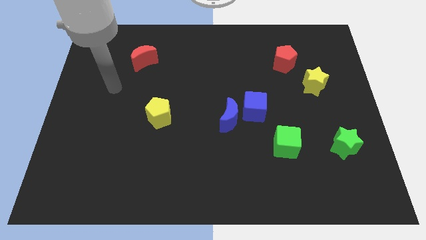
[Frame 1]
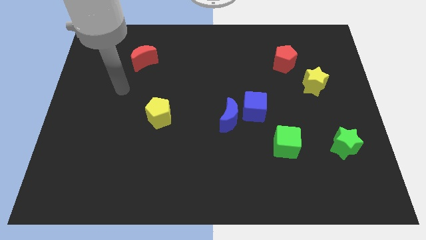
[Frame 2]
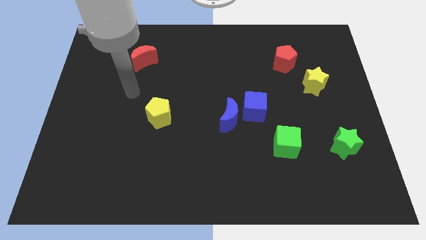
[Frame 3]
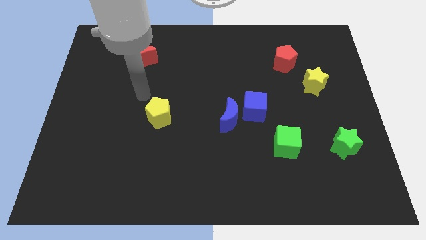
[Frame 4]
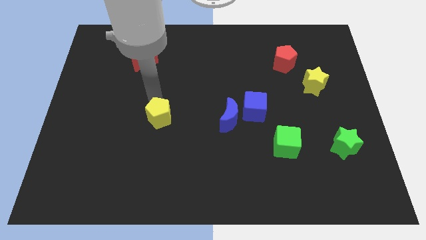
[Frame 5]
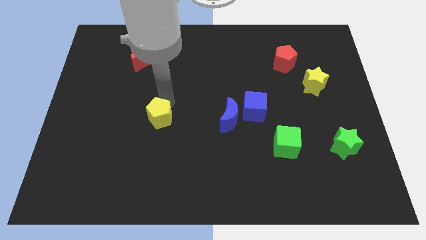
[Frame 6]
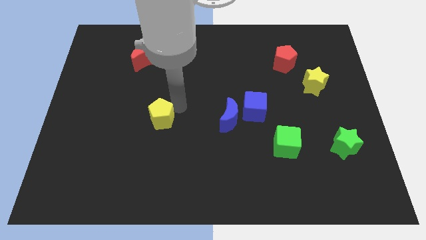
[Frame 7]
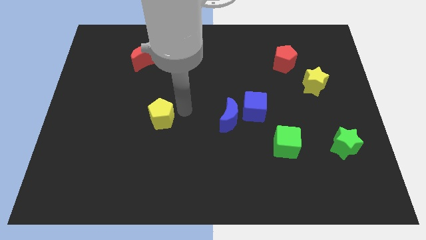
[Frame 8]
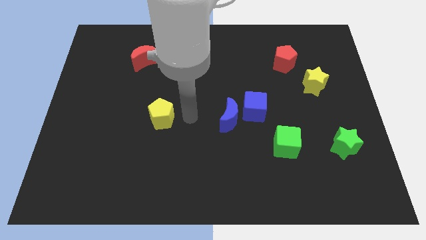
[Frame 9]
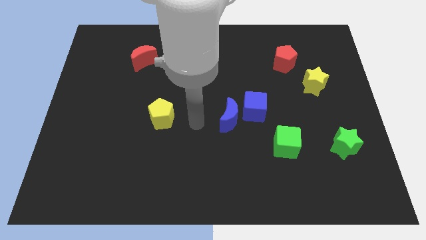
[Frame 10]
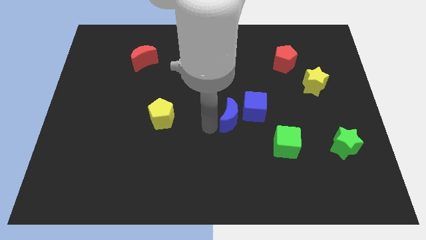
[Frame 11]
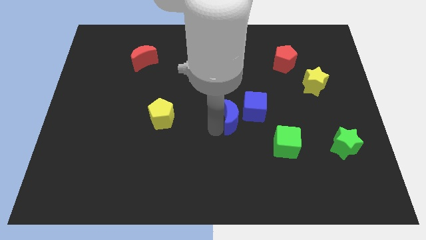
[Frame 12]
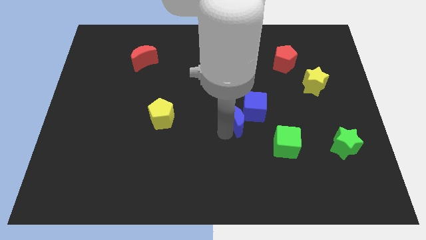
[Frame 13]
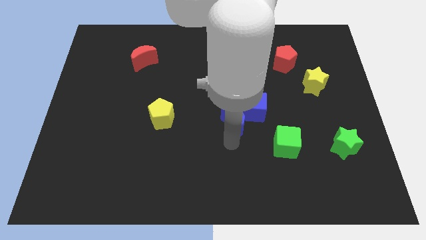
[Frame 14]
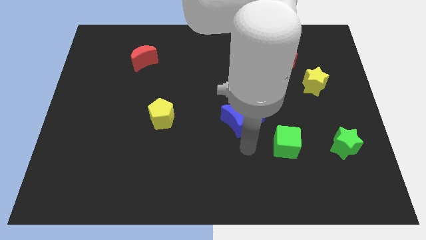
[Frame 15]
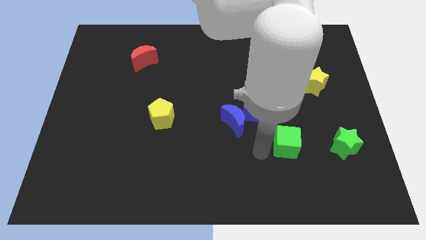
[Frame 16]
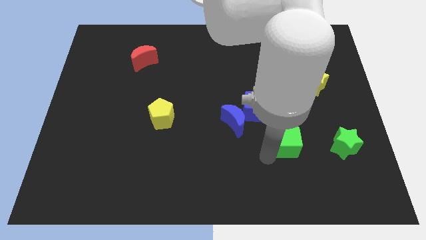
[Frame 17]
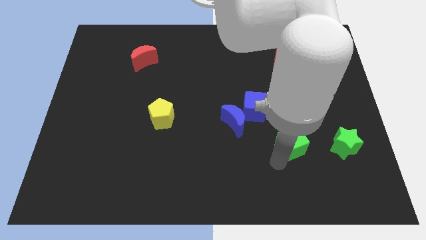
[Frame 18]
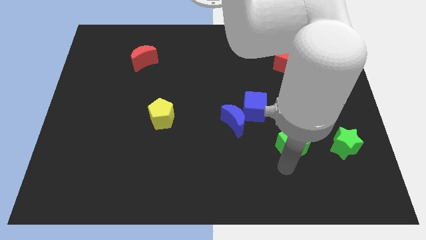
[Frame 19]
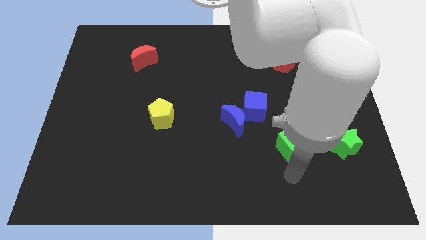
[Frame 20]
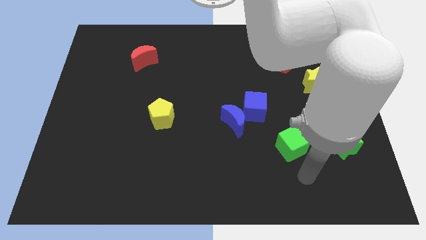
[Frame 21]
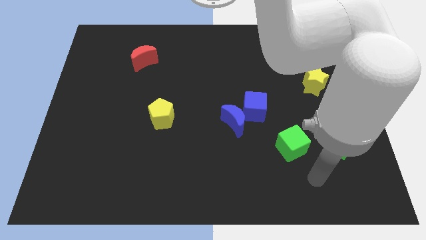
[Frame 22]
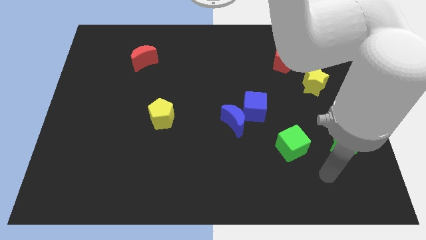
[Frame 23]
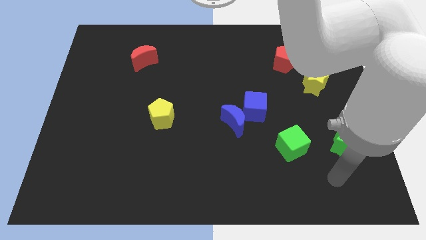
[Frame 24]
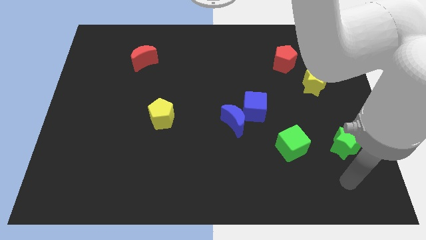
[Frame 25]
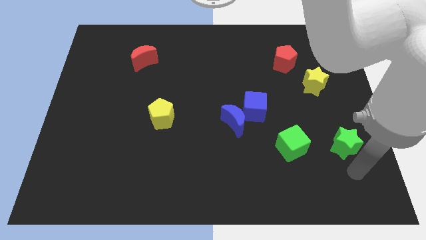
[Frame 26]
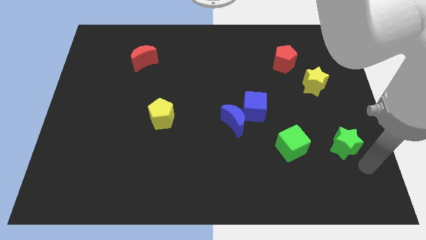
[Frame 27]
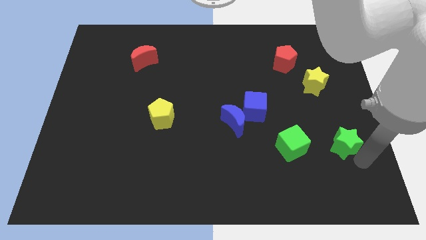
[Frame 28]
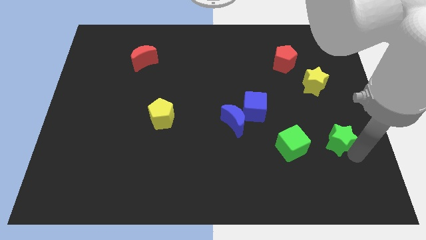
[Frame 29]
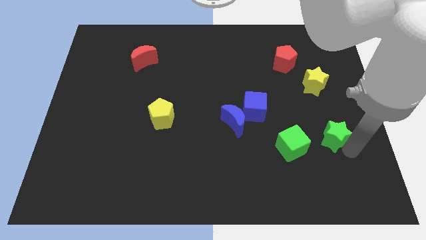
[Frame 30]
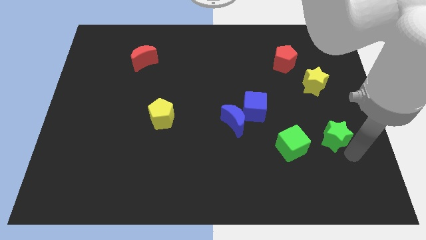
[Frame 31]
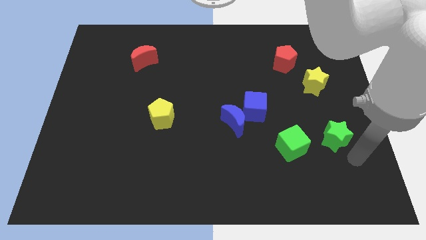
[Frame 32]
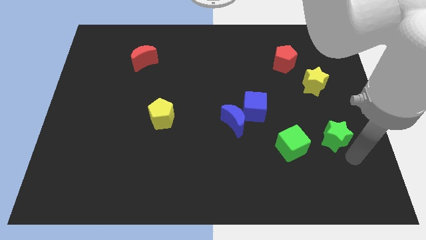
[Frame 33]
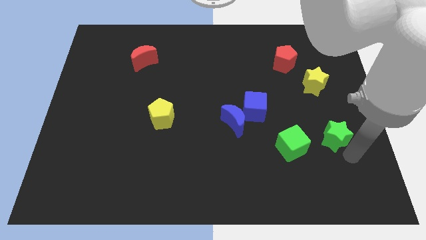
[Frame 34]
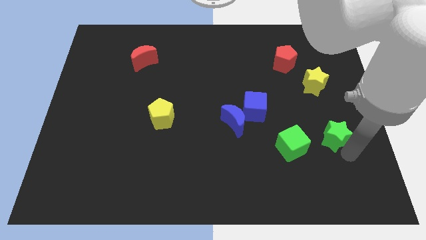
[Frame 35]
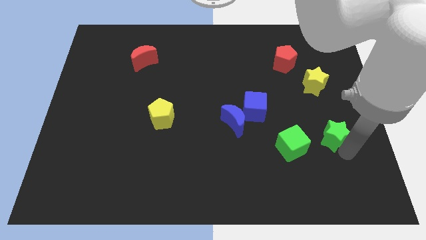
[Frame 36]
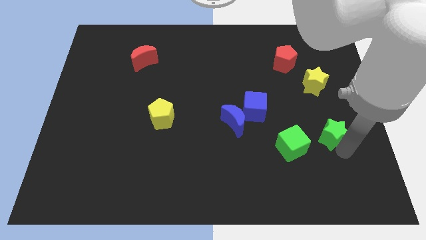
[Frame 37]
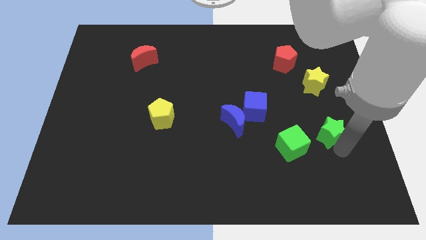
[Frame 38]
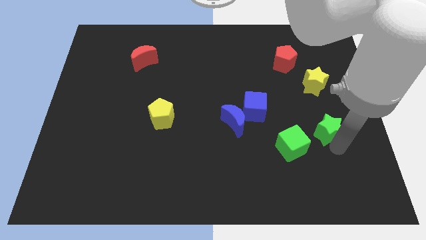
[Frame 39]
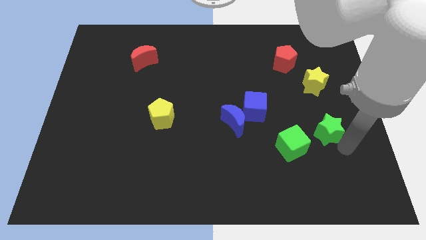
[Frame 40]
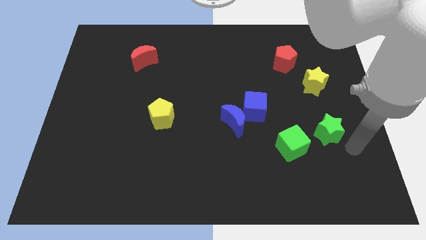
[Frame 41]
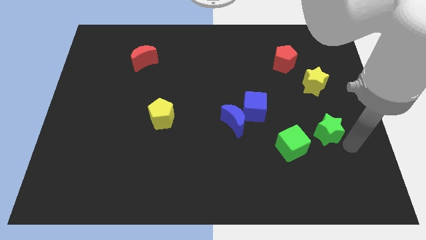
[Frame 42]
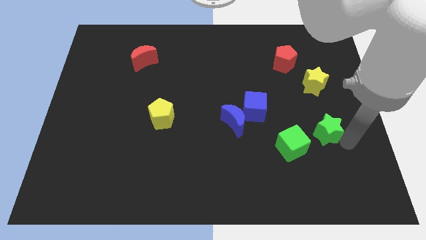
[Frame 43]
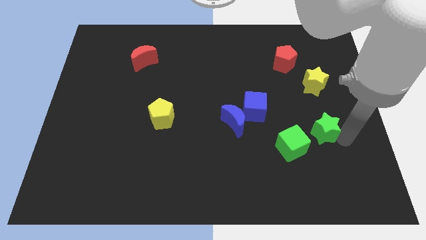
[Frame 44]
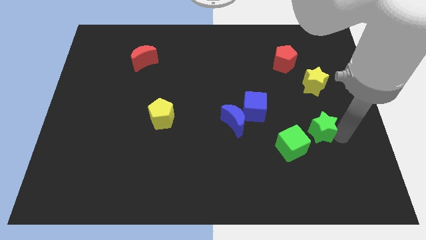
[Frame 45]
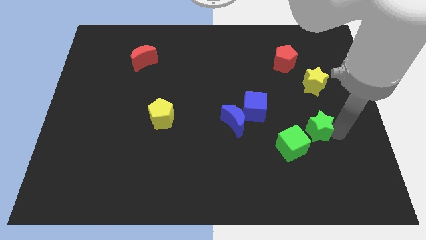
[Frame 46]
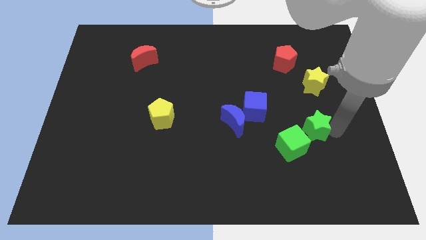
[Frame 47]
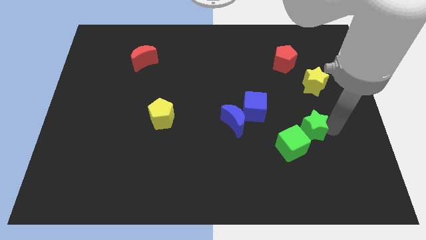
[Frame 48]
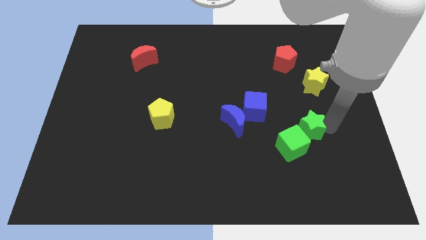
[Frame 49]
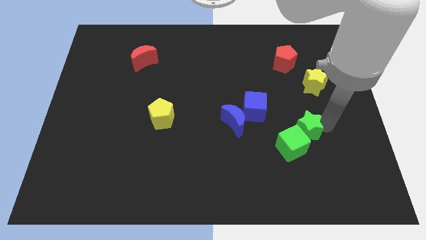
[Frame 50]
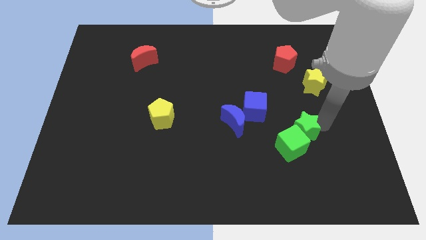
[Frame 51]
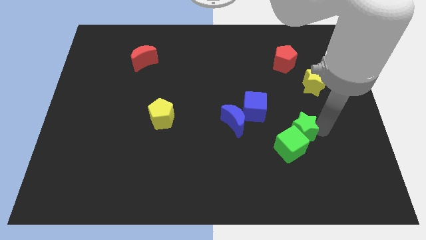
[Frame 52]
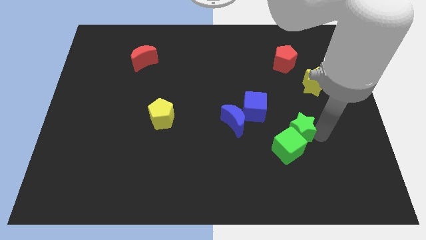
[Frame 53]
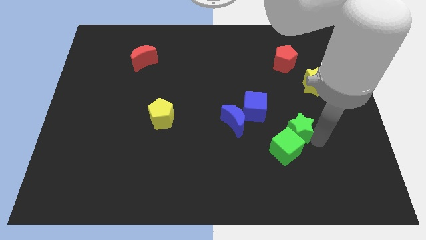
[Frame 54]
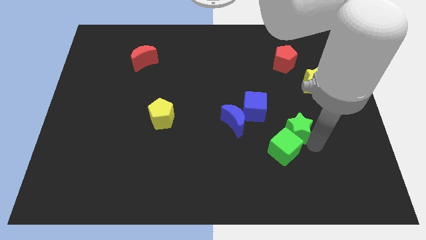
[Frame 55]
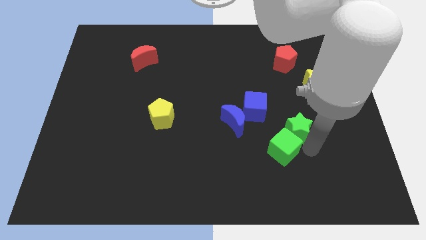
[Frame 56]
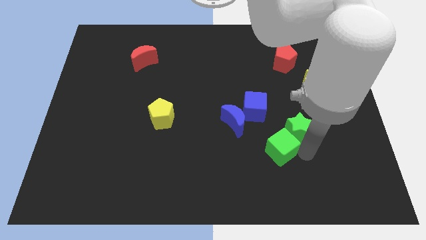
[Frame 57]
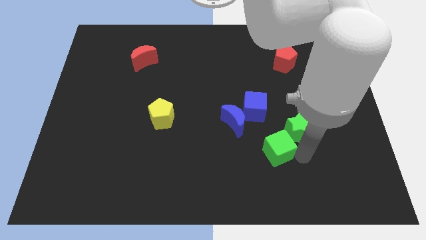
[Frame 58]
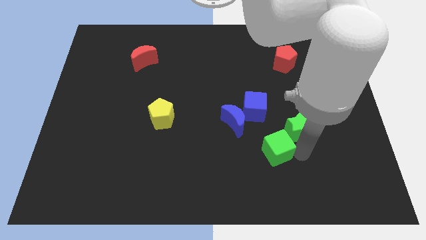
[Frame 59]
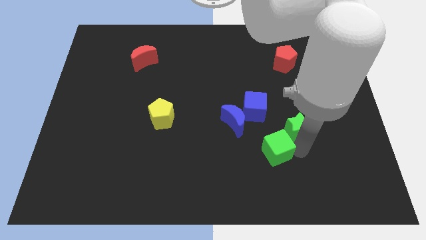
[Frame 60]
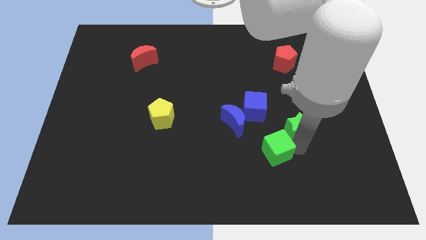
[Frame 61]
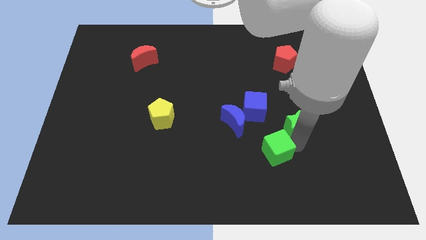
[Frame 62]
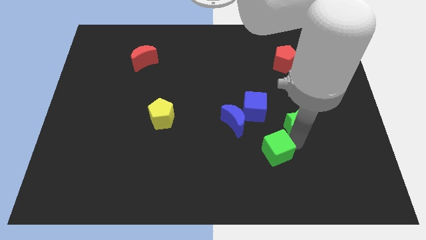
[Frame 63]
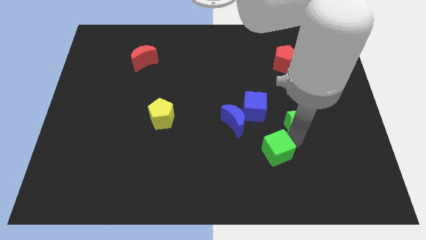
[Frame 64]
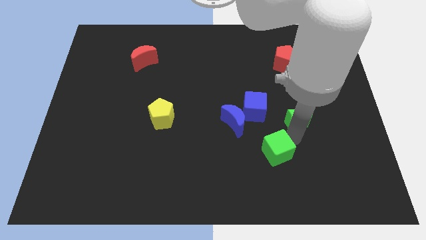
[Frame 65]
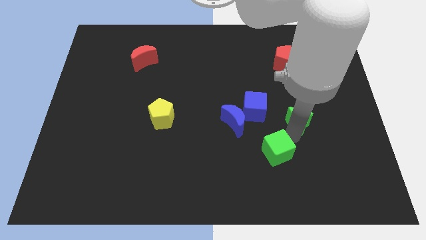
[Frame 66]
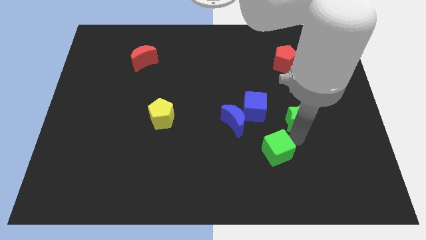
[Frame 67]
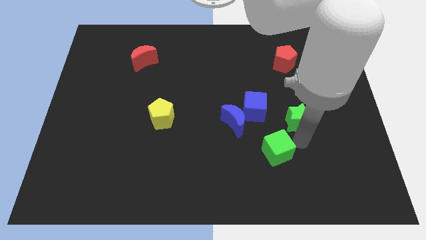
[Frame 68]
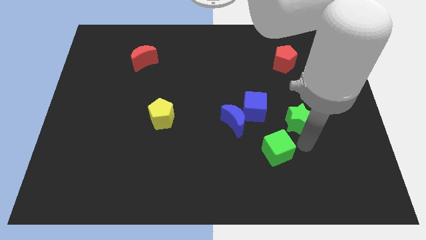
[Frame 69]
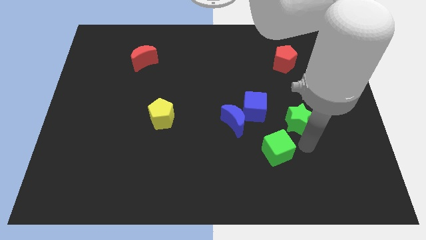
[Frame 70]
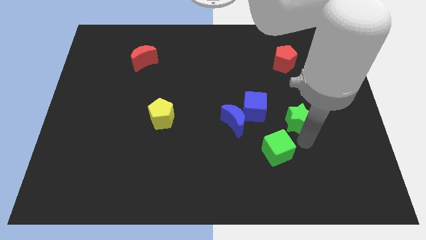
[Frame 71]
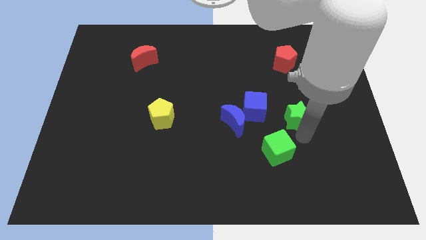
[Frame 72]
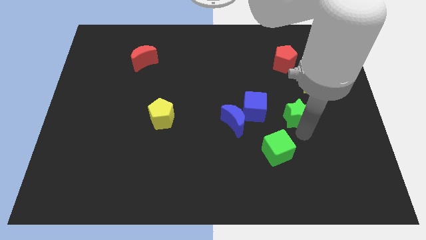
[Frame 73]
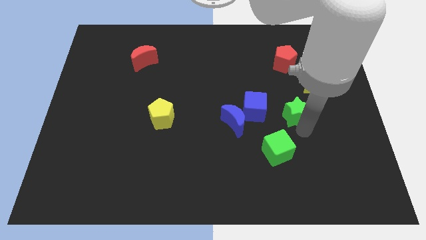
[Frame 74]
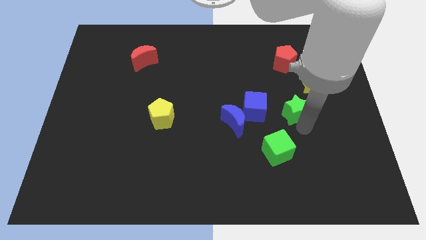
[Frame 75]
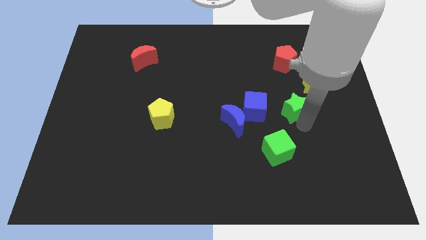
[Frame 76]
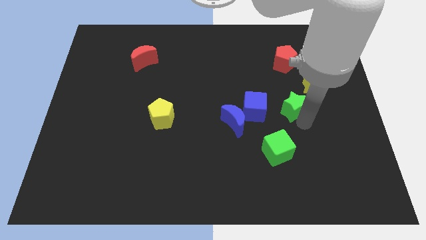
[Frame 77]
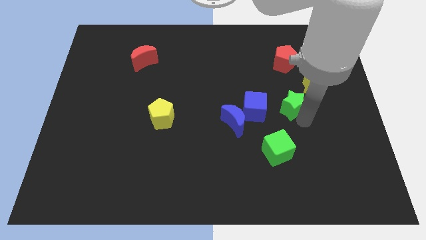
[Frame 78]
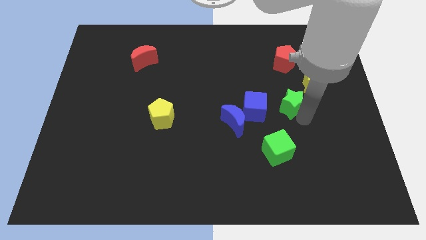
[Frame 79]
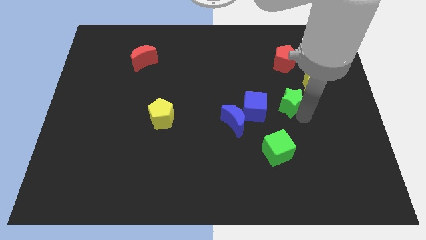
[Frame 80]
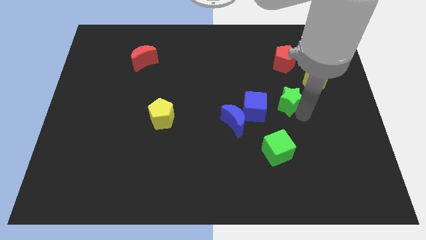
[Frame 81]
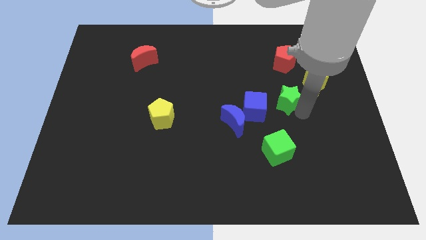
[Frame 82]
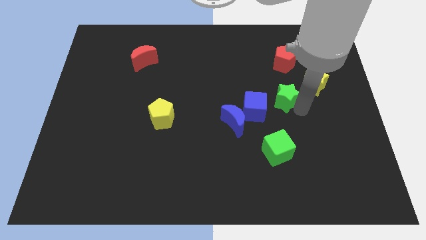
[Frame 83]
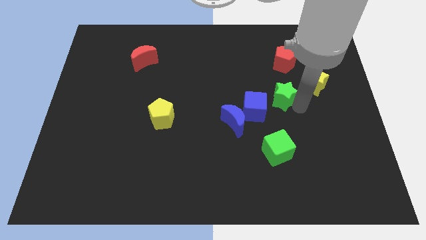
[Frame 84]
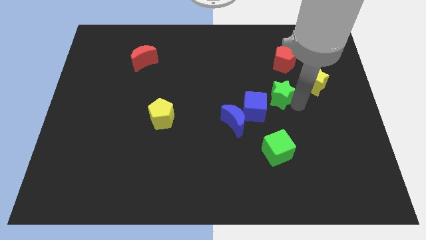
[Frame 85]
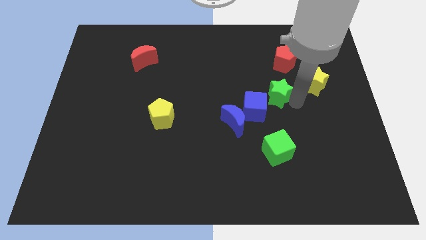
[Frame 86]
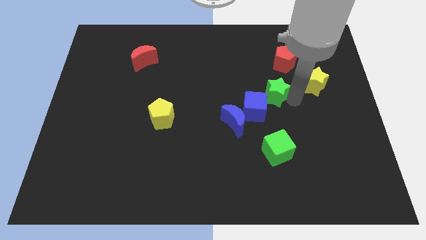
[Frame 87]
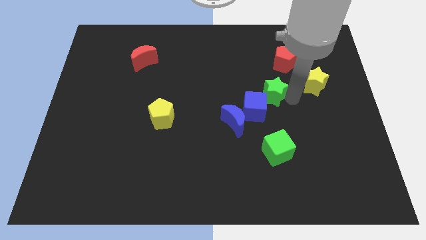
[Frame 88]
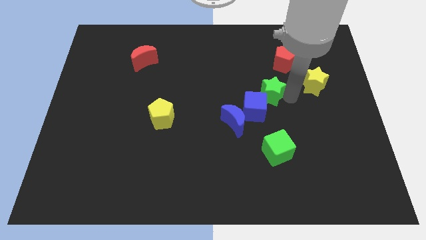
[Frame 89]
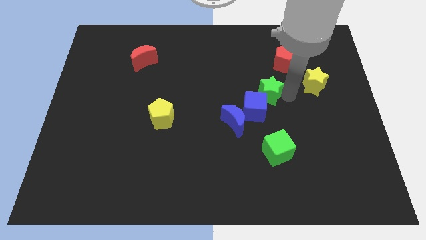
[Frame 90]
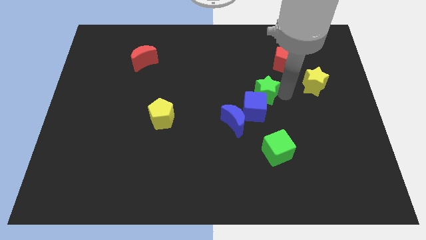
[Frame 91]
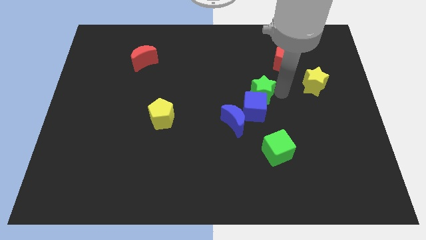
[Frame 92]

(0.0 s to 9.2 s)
put the green star to the middle
